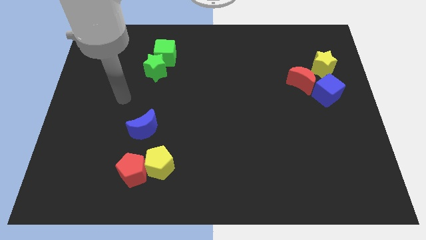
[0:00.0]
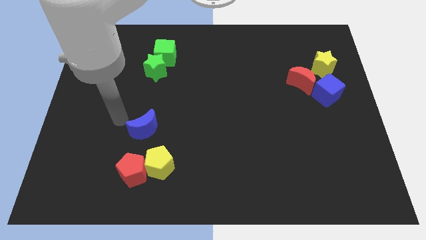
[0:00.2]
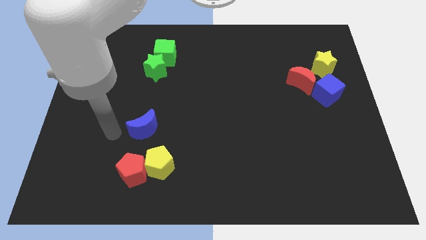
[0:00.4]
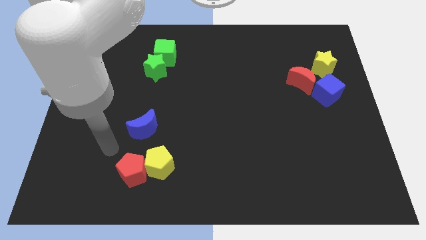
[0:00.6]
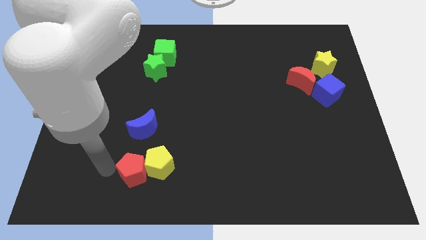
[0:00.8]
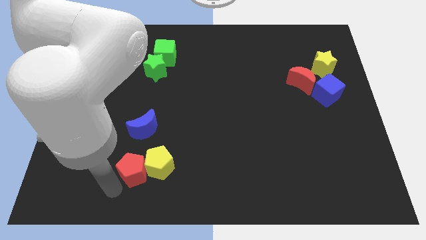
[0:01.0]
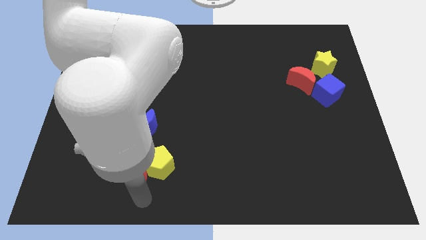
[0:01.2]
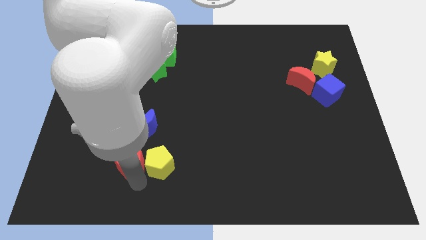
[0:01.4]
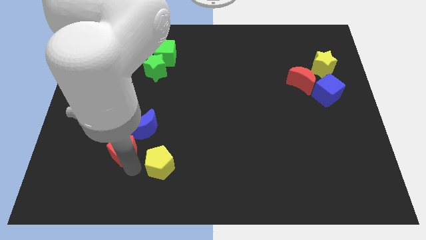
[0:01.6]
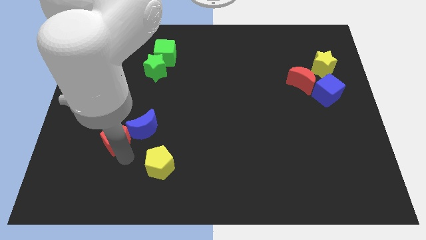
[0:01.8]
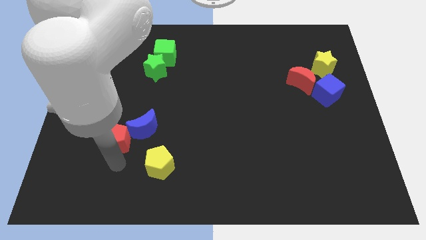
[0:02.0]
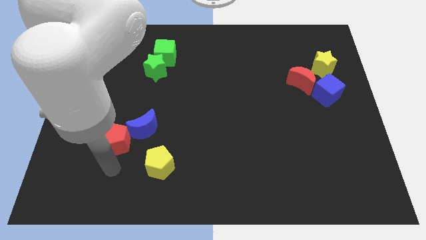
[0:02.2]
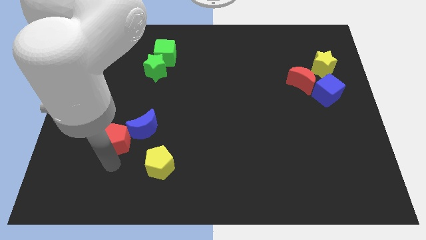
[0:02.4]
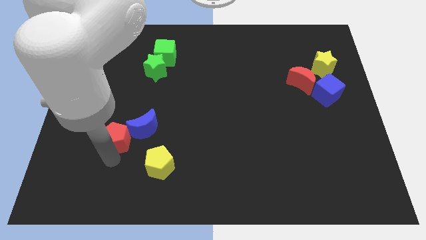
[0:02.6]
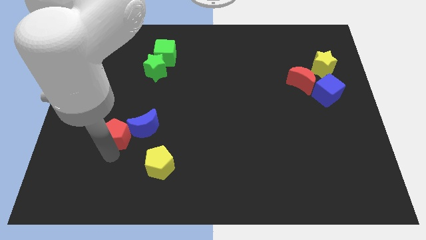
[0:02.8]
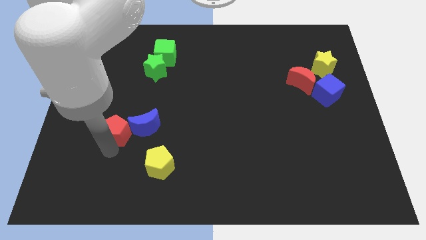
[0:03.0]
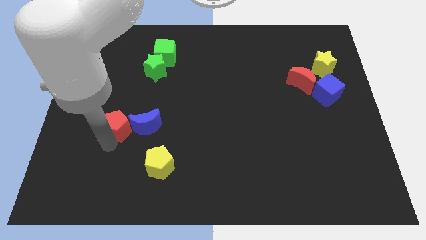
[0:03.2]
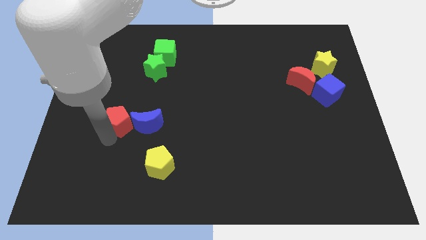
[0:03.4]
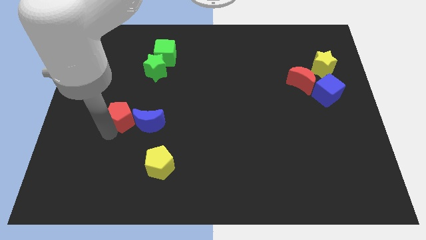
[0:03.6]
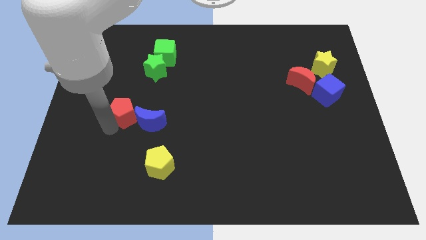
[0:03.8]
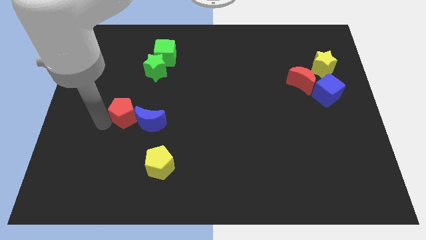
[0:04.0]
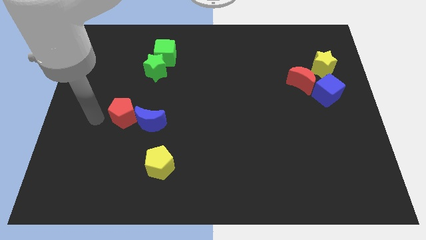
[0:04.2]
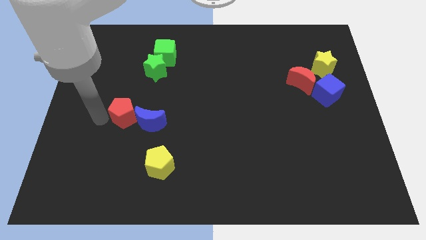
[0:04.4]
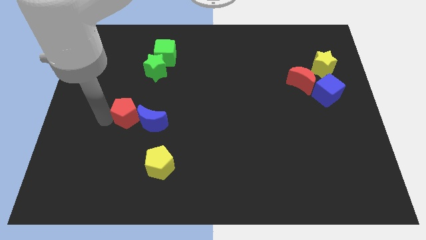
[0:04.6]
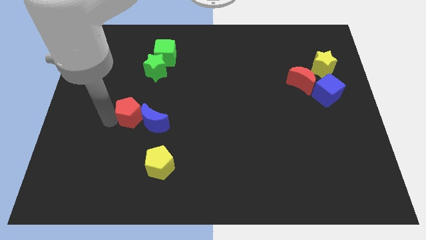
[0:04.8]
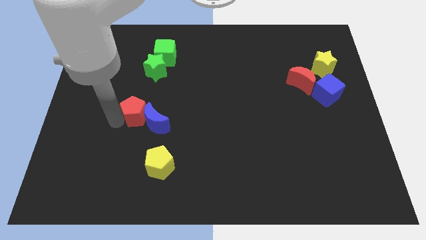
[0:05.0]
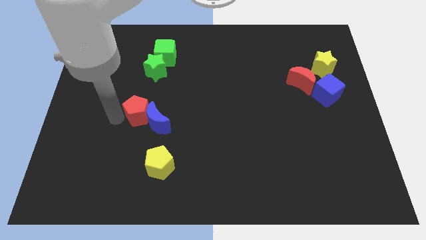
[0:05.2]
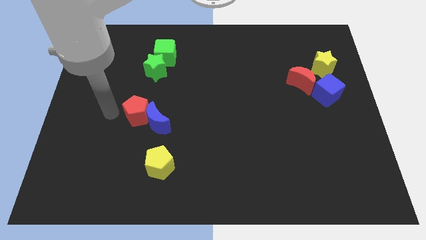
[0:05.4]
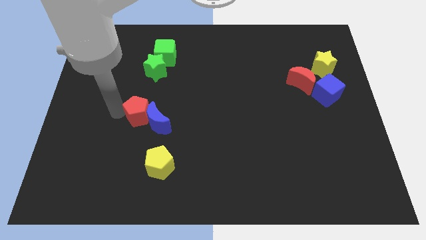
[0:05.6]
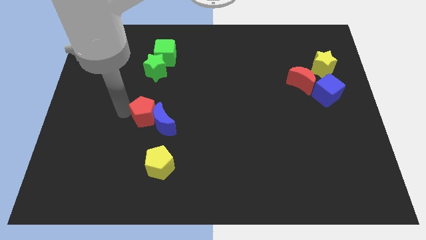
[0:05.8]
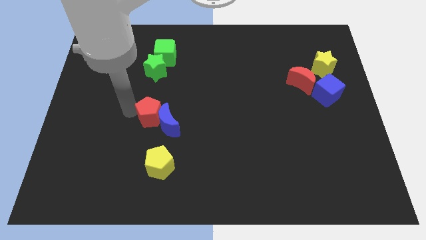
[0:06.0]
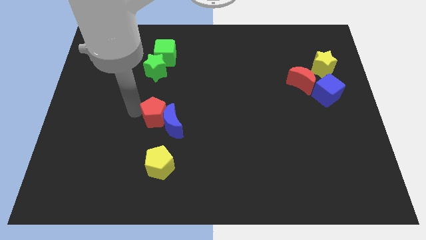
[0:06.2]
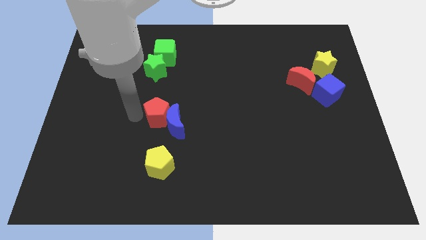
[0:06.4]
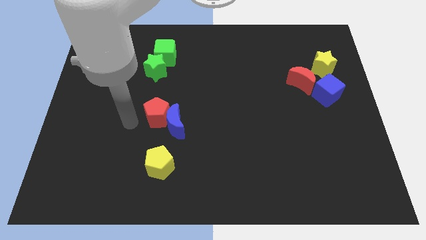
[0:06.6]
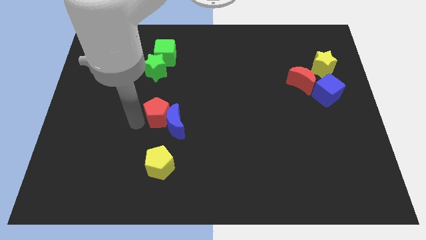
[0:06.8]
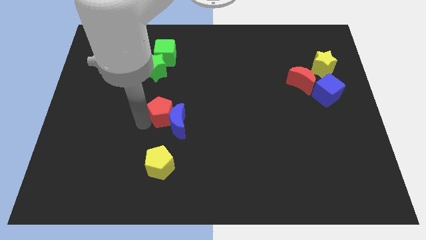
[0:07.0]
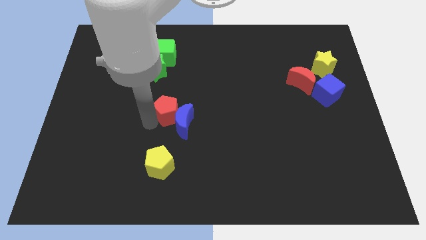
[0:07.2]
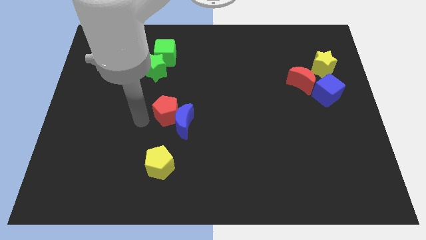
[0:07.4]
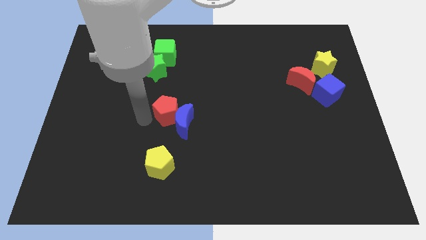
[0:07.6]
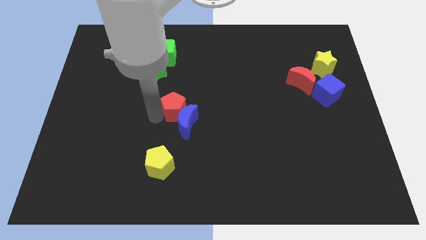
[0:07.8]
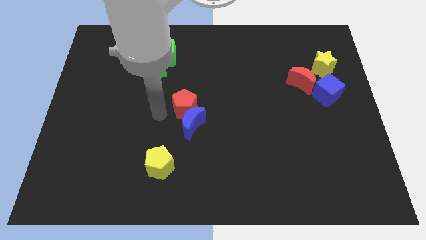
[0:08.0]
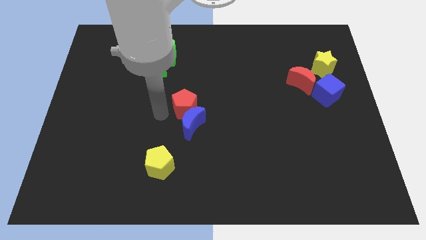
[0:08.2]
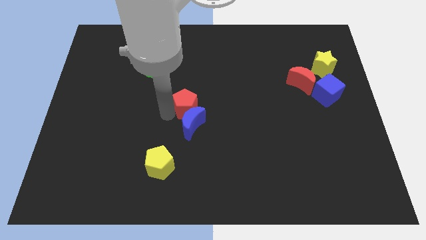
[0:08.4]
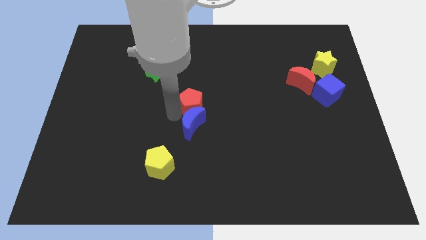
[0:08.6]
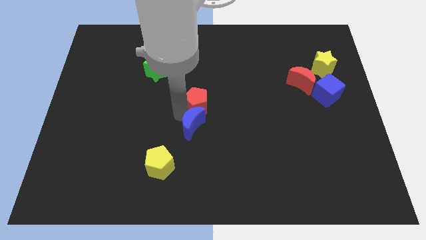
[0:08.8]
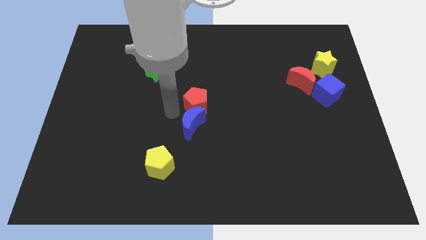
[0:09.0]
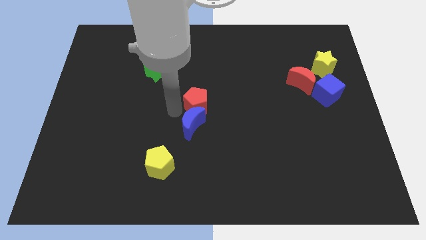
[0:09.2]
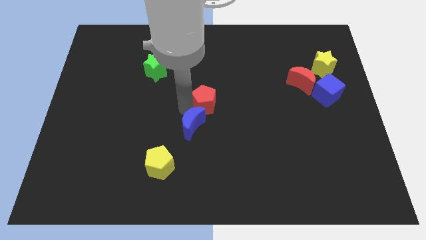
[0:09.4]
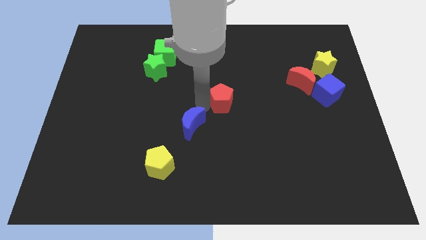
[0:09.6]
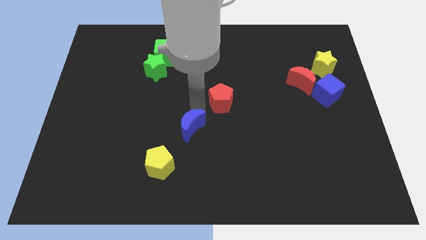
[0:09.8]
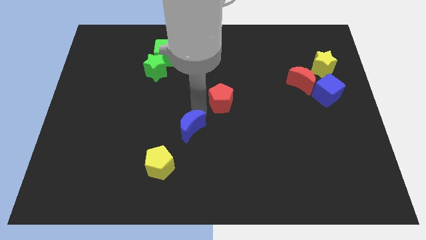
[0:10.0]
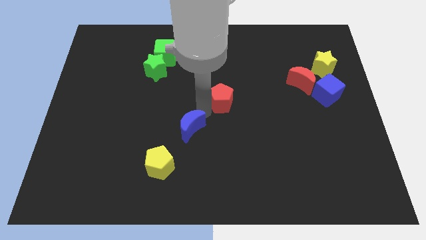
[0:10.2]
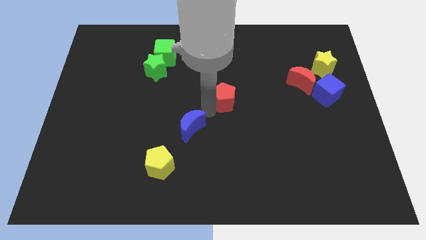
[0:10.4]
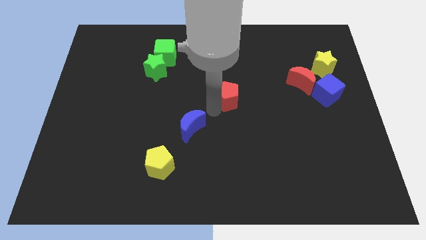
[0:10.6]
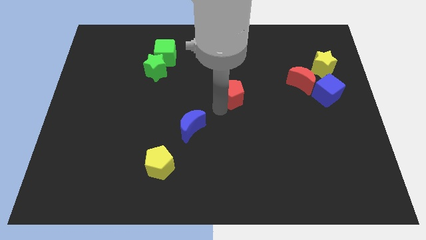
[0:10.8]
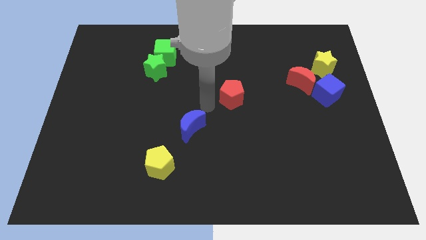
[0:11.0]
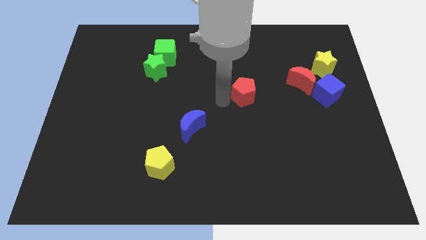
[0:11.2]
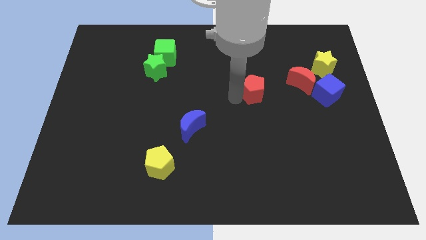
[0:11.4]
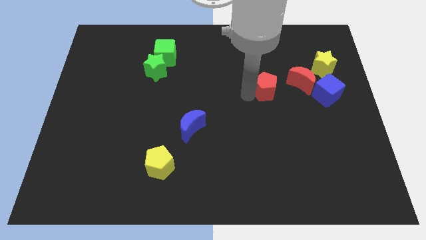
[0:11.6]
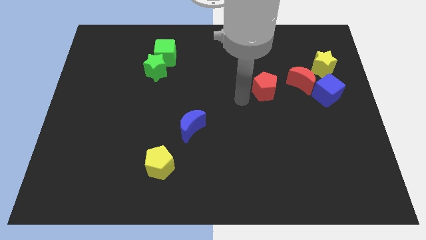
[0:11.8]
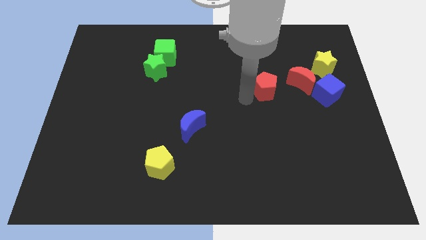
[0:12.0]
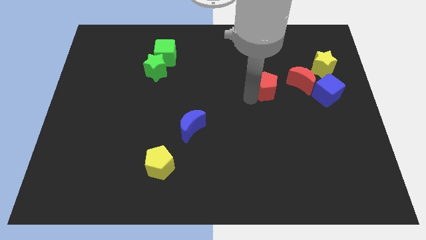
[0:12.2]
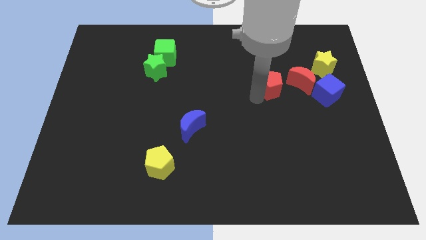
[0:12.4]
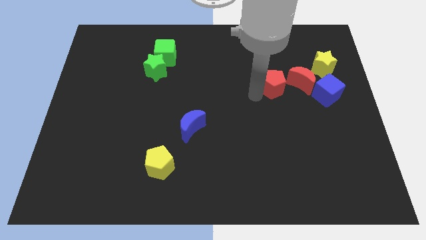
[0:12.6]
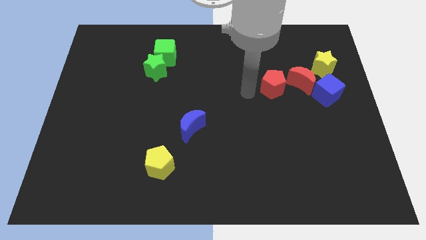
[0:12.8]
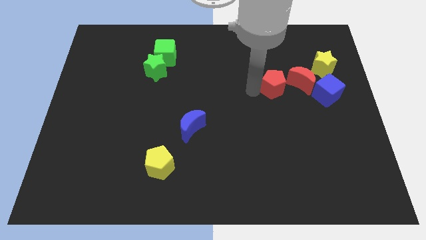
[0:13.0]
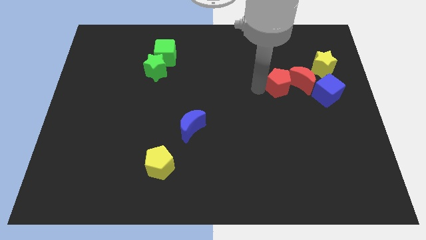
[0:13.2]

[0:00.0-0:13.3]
move the red pentagon next to the red moon

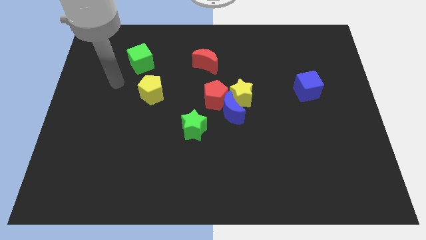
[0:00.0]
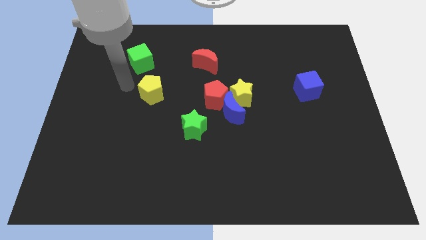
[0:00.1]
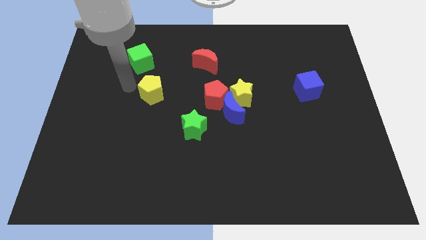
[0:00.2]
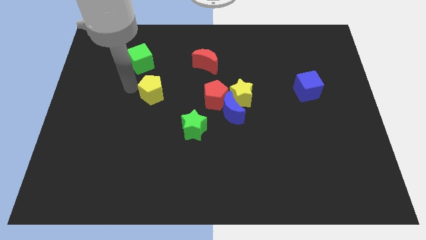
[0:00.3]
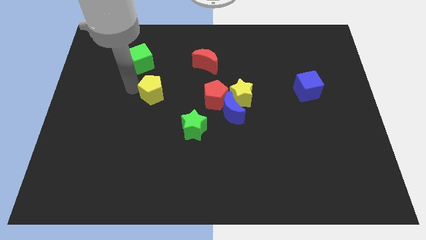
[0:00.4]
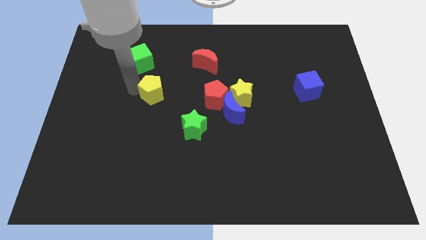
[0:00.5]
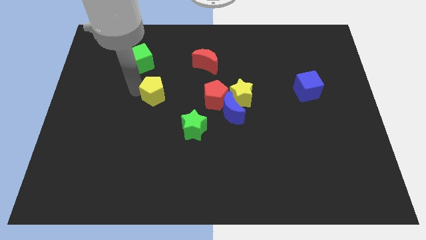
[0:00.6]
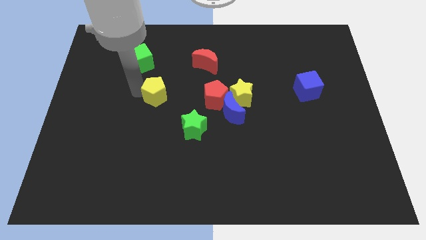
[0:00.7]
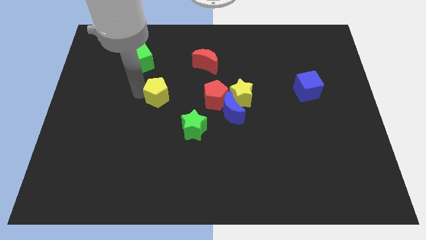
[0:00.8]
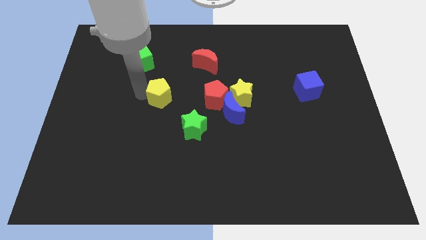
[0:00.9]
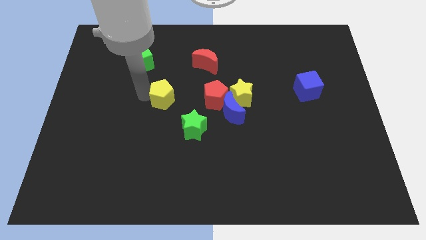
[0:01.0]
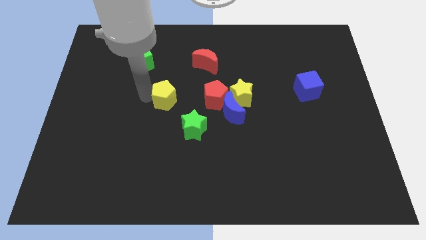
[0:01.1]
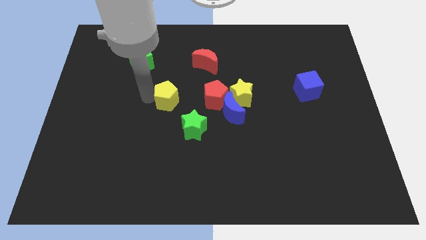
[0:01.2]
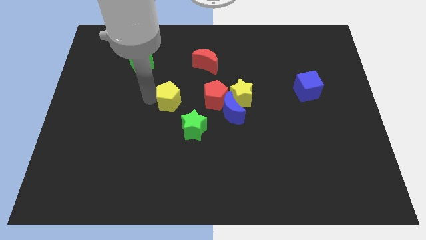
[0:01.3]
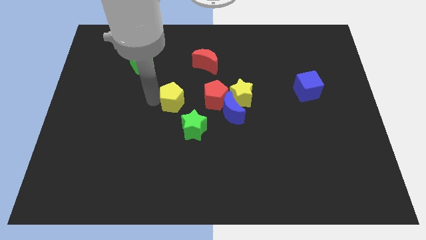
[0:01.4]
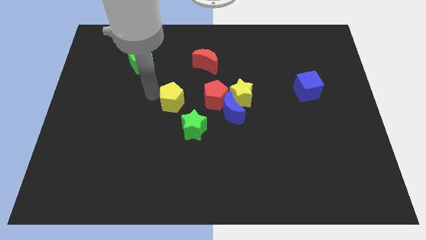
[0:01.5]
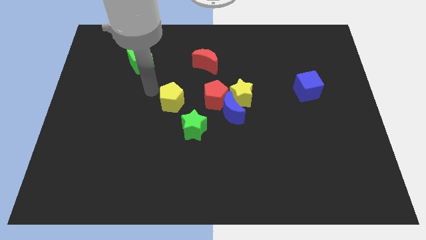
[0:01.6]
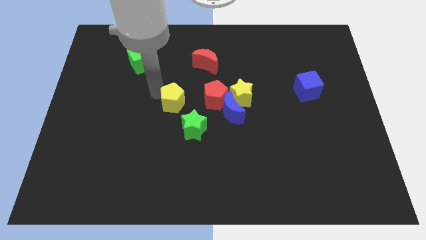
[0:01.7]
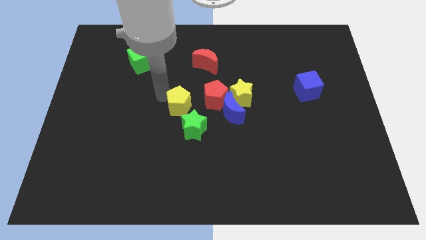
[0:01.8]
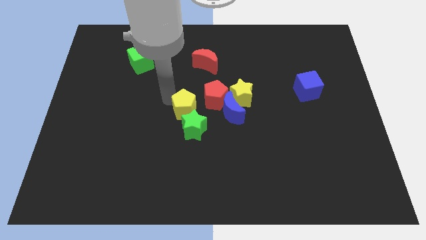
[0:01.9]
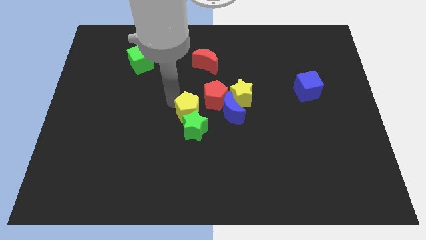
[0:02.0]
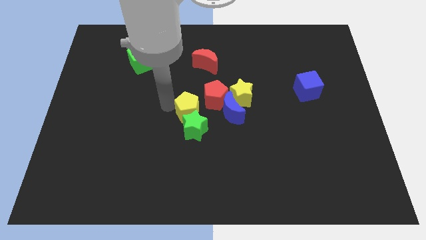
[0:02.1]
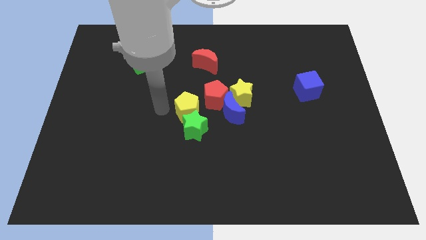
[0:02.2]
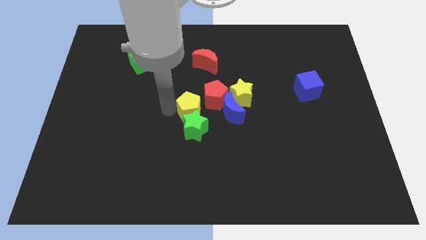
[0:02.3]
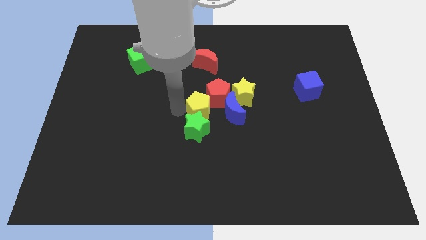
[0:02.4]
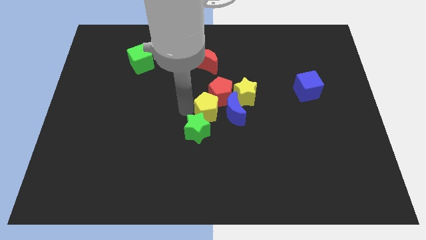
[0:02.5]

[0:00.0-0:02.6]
push the yellow pentagon towards the blue moon
